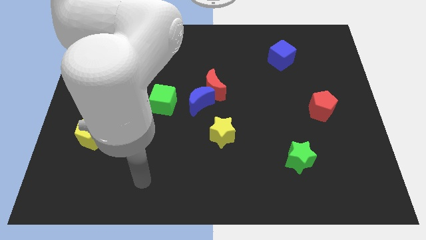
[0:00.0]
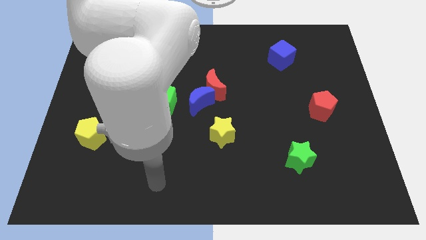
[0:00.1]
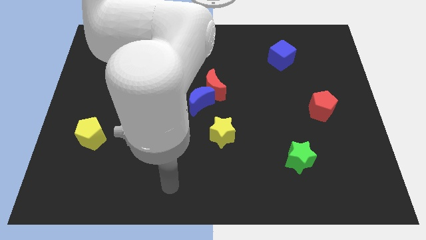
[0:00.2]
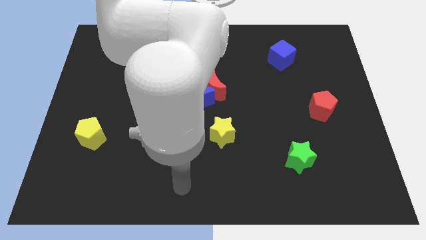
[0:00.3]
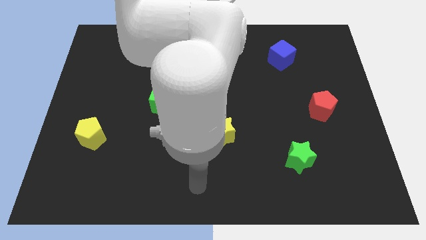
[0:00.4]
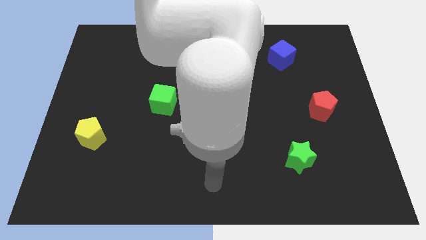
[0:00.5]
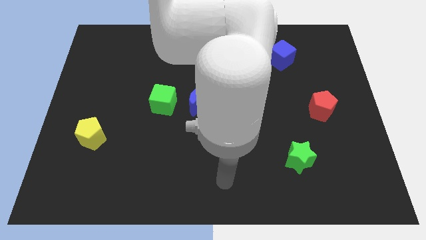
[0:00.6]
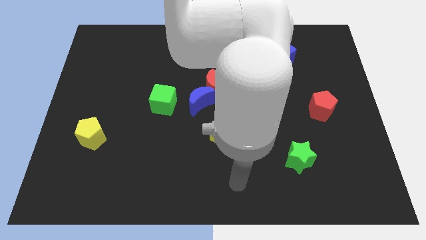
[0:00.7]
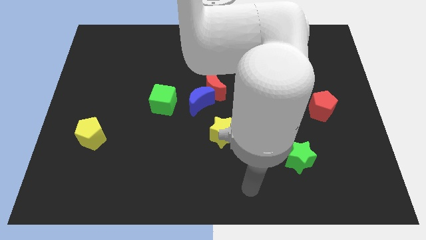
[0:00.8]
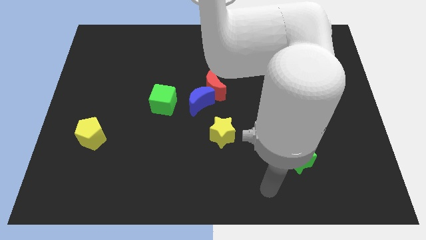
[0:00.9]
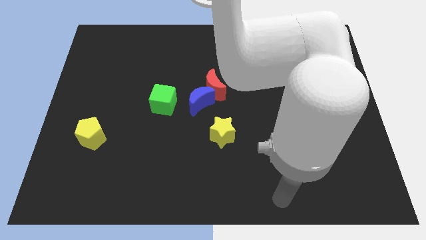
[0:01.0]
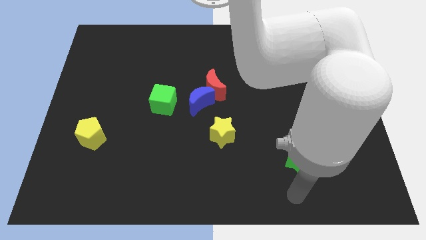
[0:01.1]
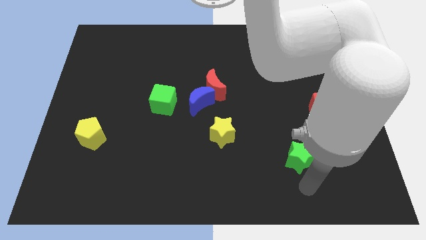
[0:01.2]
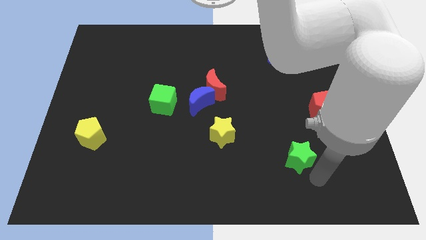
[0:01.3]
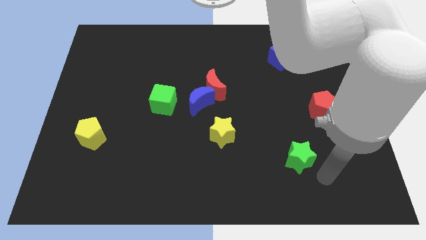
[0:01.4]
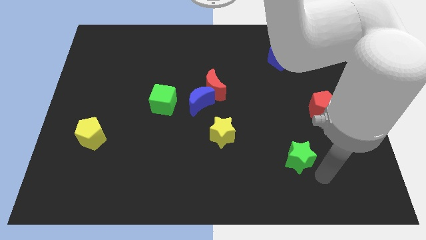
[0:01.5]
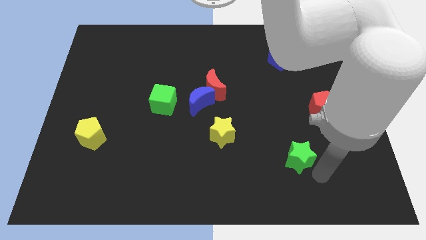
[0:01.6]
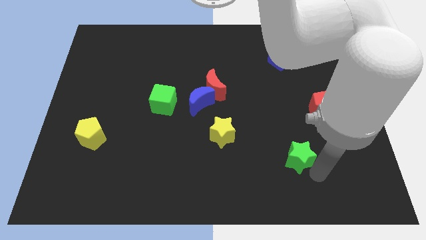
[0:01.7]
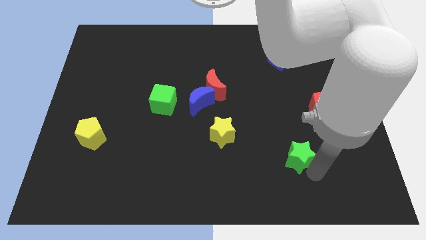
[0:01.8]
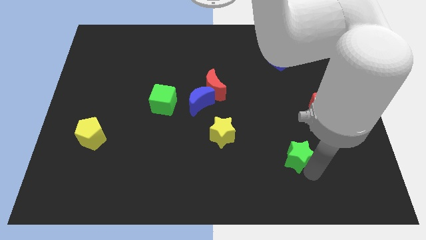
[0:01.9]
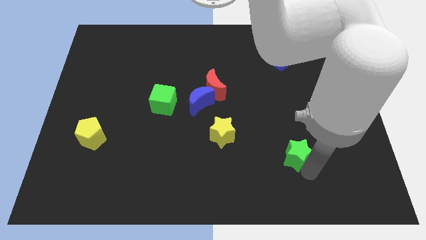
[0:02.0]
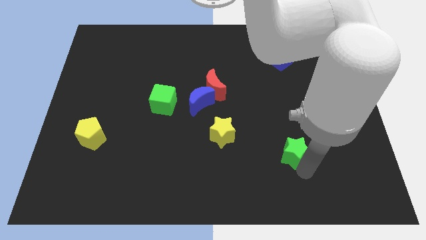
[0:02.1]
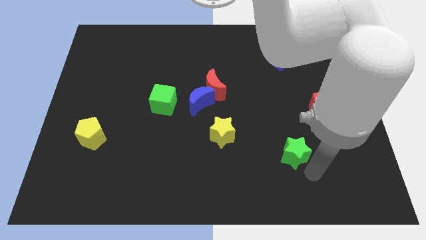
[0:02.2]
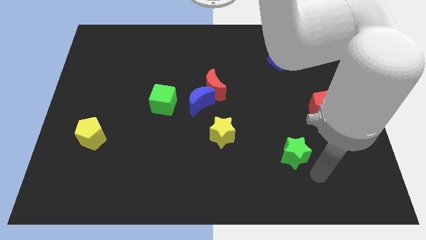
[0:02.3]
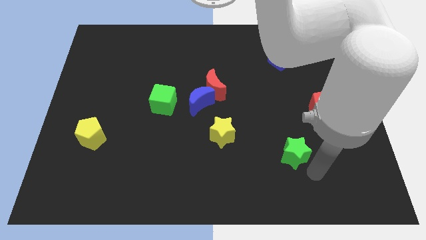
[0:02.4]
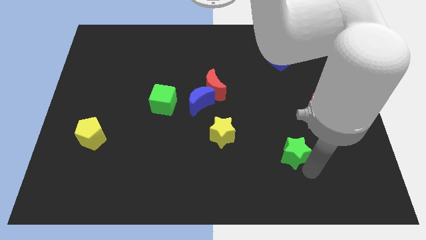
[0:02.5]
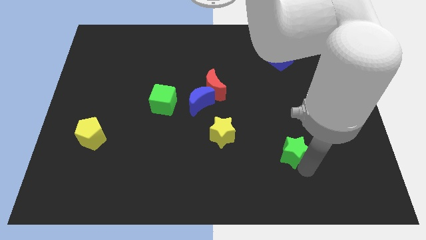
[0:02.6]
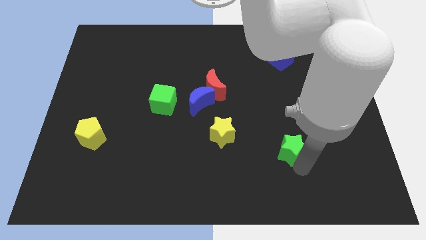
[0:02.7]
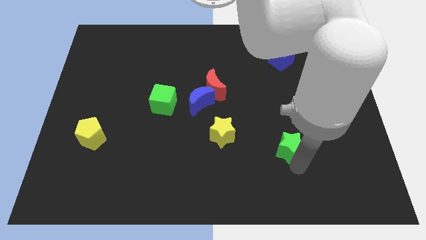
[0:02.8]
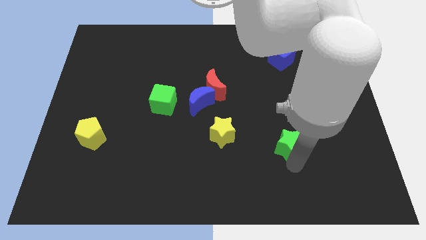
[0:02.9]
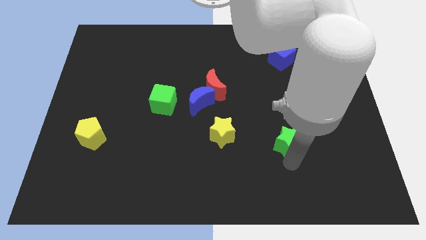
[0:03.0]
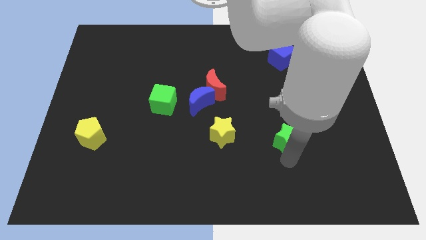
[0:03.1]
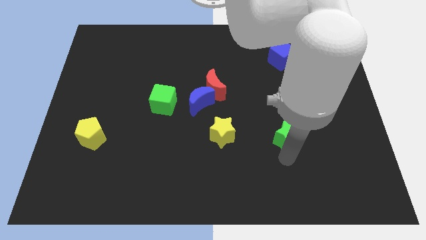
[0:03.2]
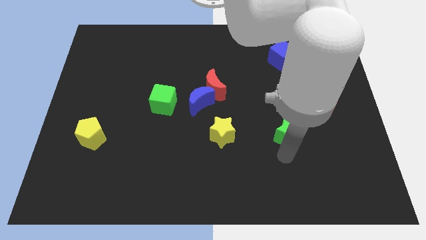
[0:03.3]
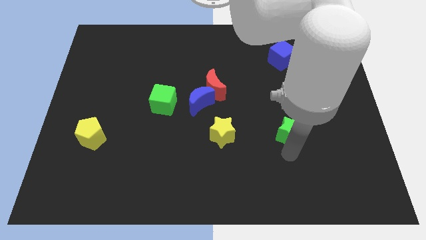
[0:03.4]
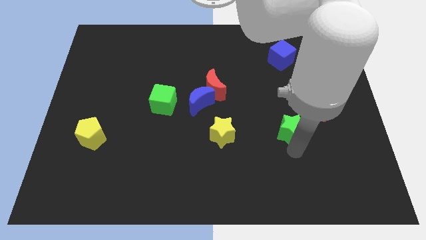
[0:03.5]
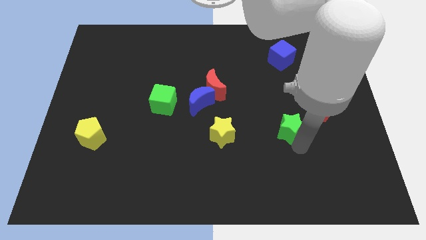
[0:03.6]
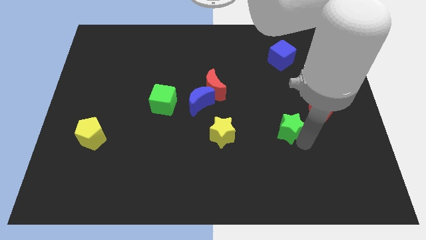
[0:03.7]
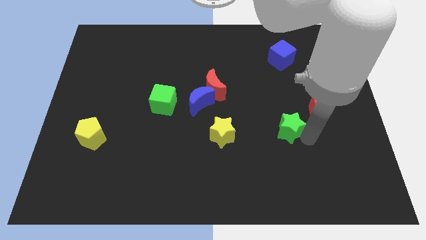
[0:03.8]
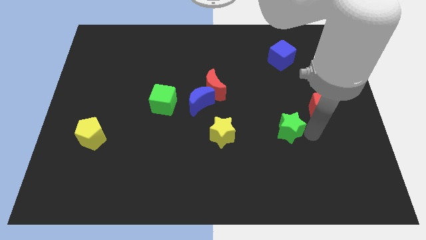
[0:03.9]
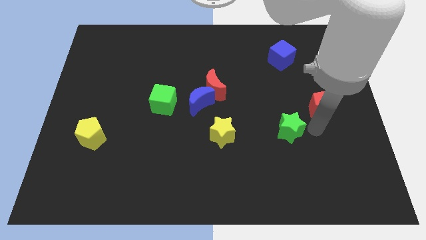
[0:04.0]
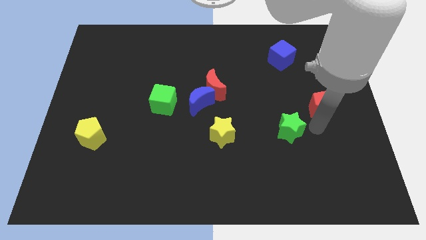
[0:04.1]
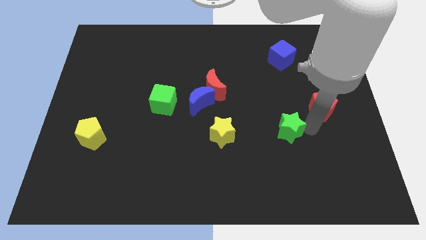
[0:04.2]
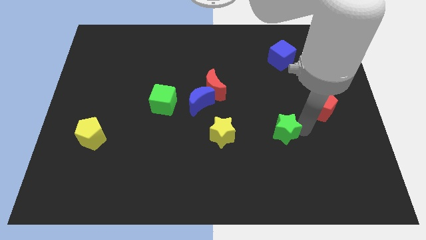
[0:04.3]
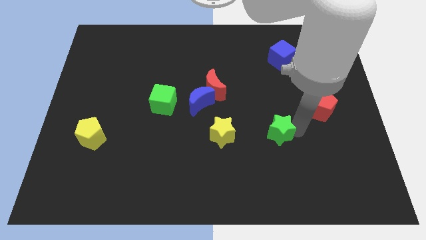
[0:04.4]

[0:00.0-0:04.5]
slightly push the green star upwards and to the left

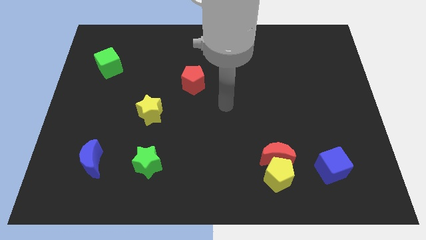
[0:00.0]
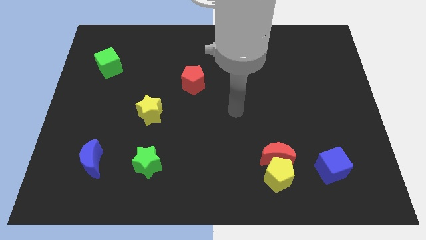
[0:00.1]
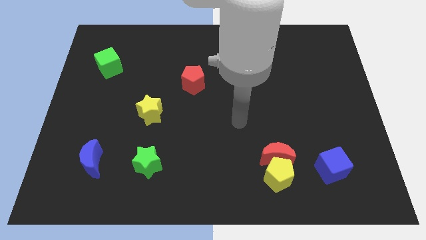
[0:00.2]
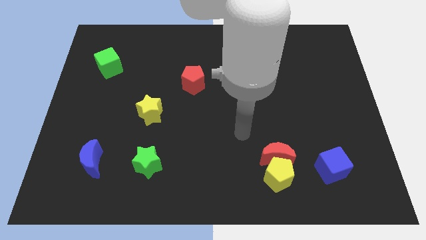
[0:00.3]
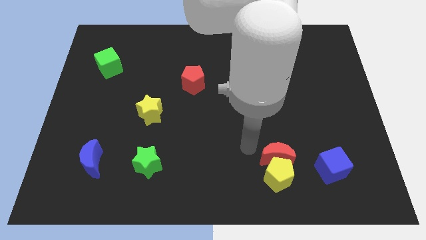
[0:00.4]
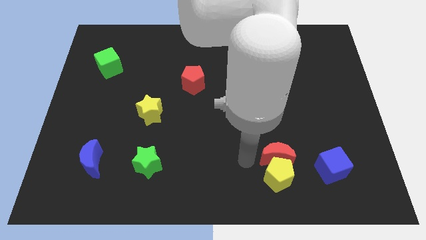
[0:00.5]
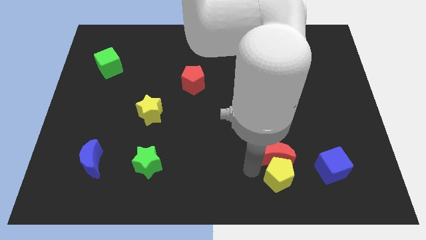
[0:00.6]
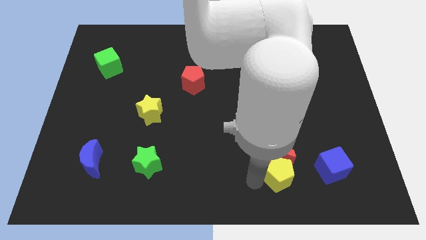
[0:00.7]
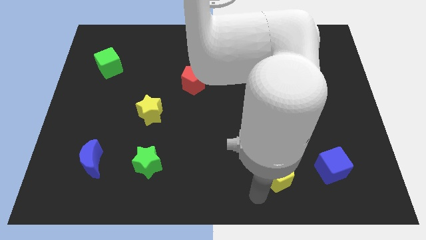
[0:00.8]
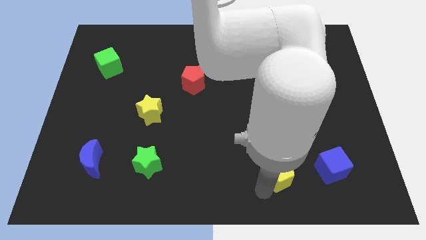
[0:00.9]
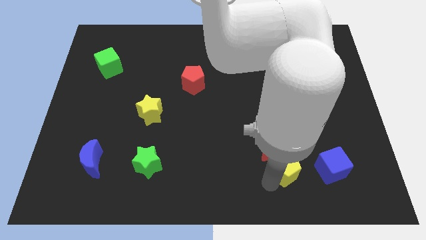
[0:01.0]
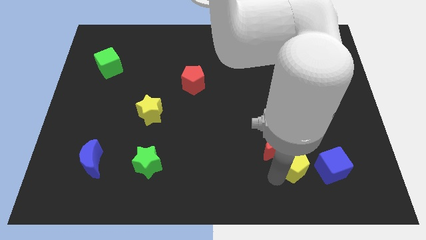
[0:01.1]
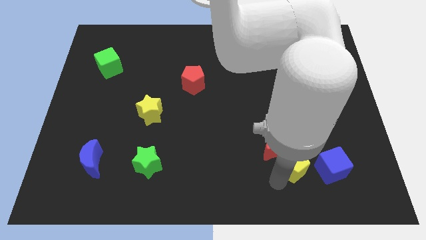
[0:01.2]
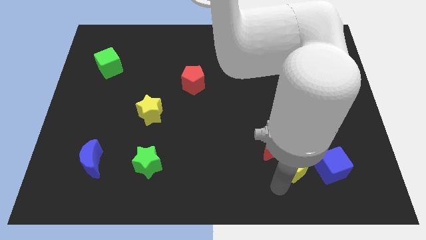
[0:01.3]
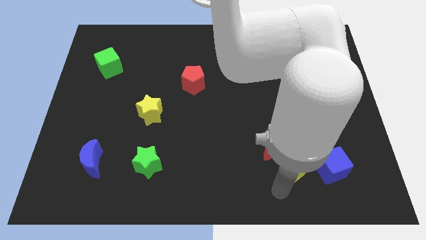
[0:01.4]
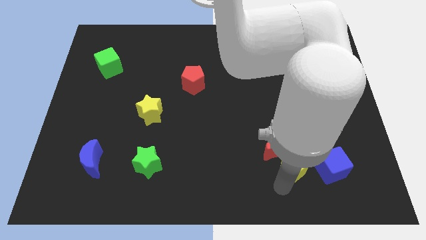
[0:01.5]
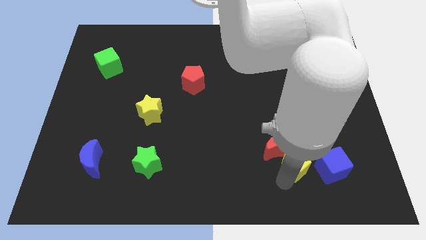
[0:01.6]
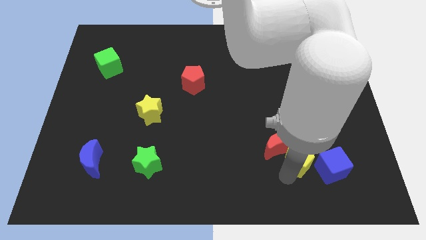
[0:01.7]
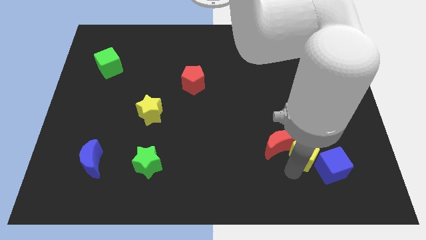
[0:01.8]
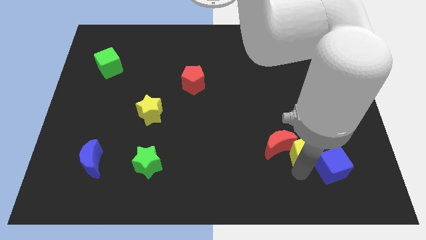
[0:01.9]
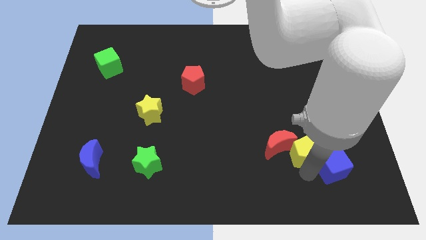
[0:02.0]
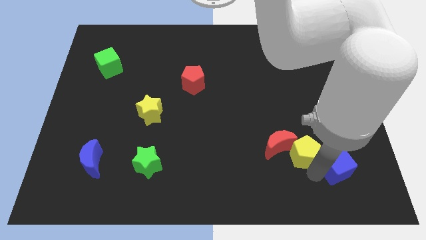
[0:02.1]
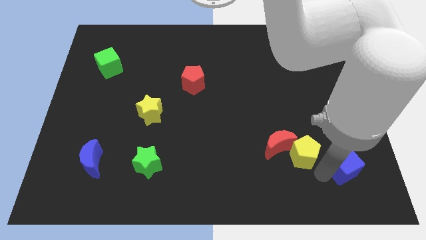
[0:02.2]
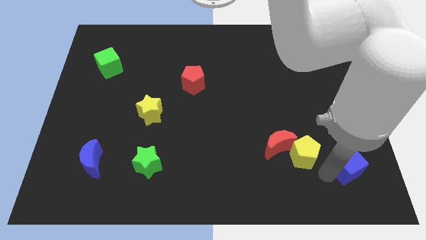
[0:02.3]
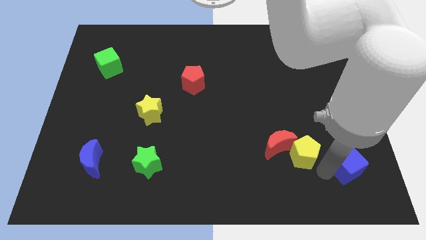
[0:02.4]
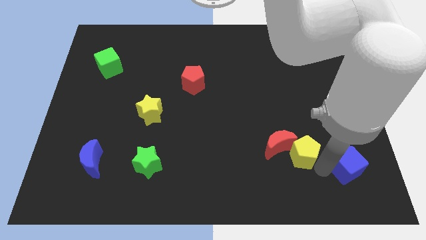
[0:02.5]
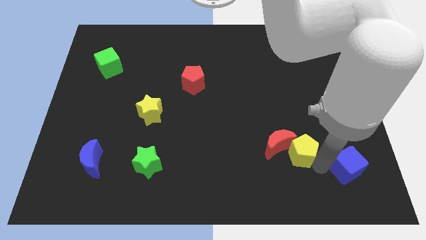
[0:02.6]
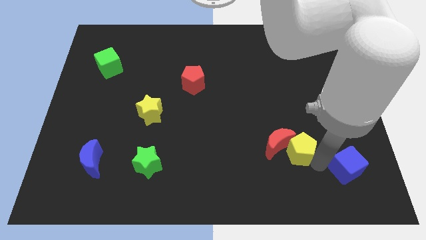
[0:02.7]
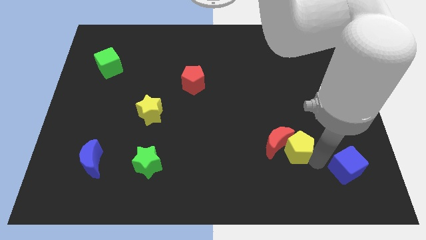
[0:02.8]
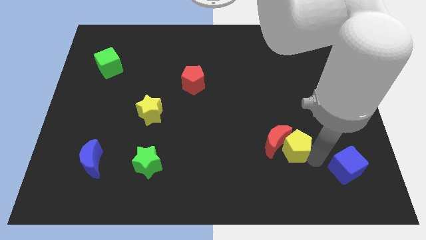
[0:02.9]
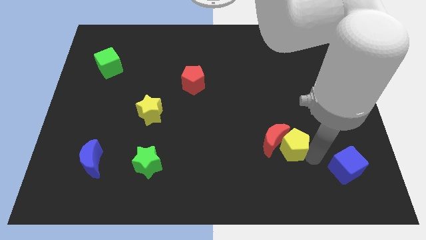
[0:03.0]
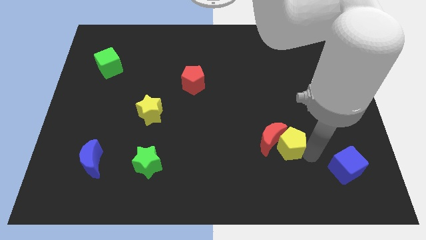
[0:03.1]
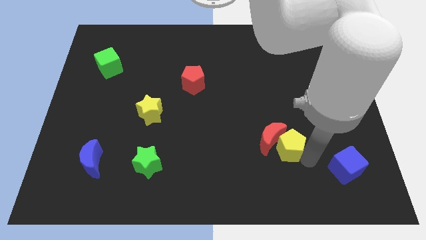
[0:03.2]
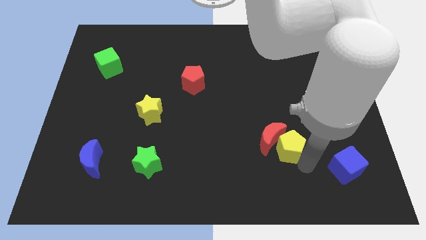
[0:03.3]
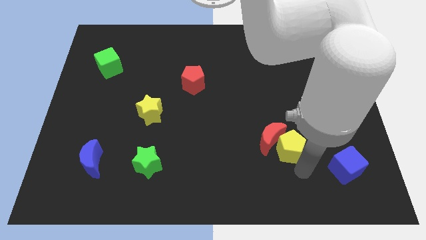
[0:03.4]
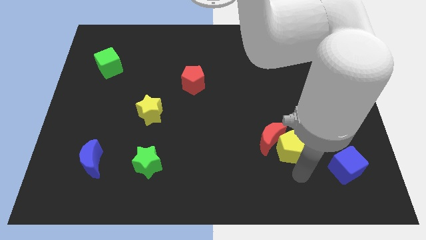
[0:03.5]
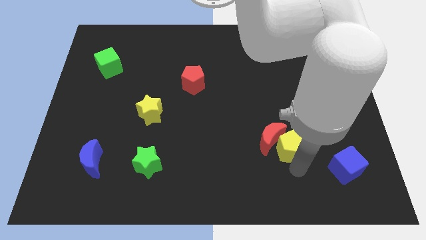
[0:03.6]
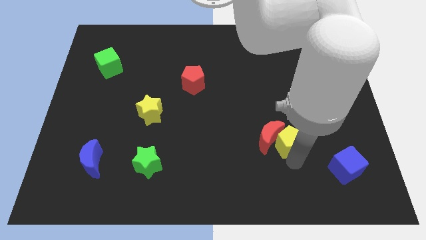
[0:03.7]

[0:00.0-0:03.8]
slightly move the yellow pentagon up
